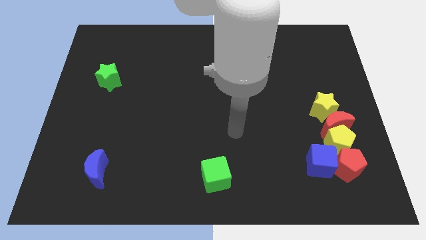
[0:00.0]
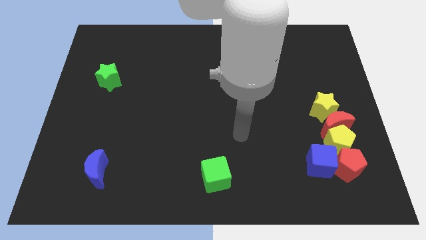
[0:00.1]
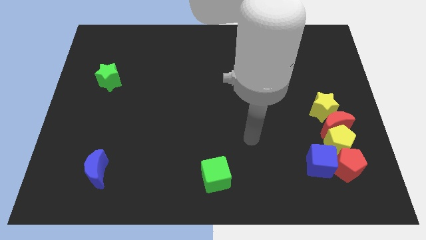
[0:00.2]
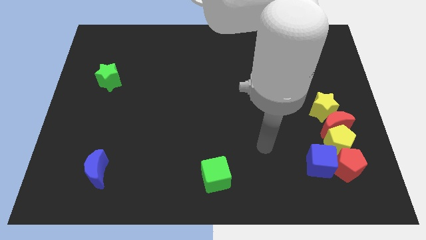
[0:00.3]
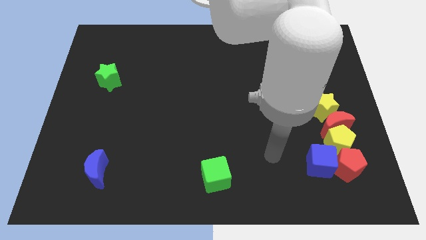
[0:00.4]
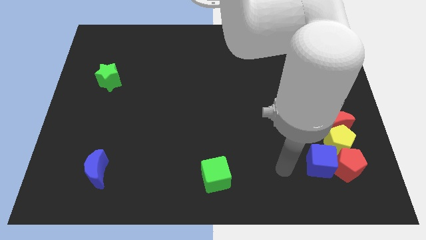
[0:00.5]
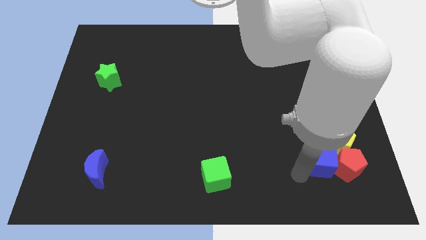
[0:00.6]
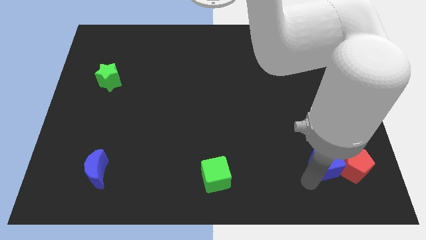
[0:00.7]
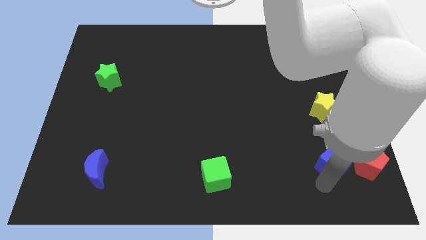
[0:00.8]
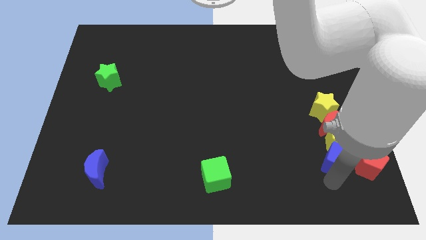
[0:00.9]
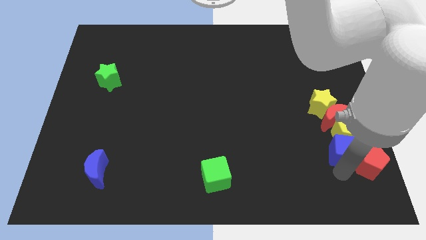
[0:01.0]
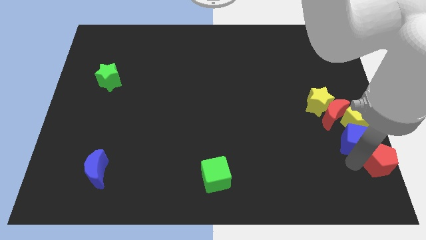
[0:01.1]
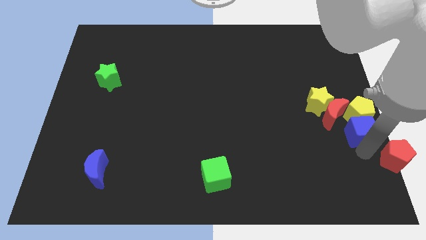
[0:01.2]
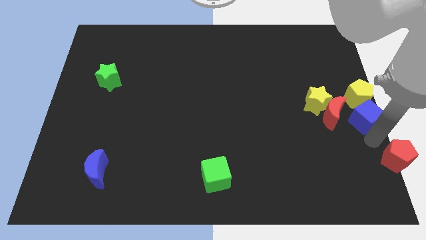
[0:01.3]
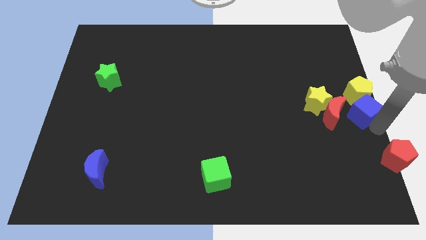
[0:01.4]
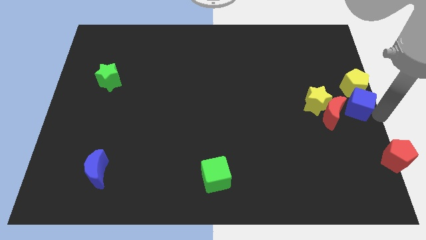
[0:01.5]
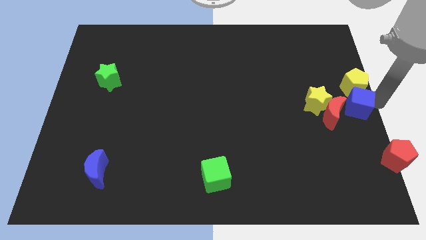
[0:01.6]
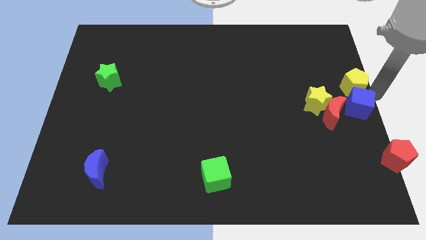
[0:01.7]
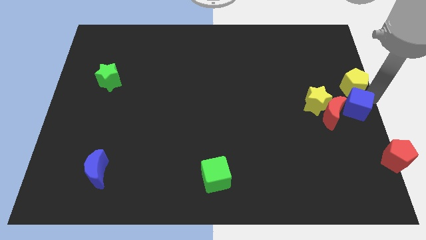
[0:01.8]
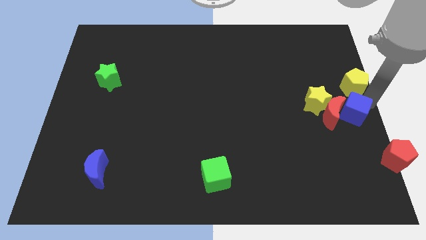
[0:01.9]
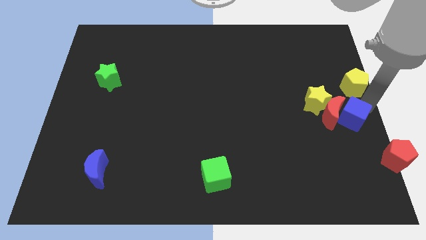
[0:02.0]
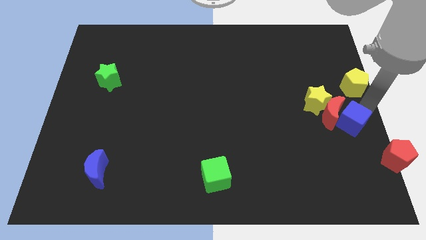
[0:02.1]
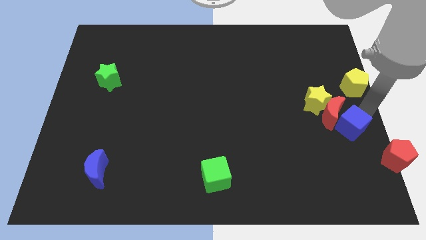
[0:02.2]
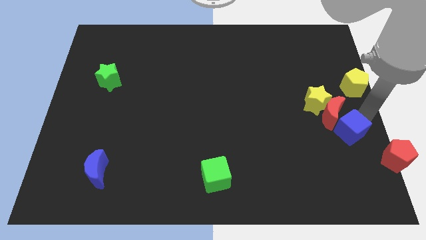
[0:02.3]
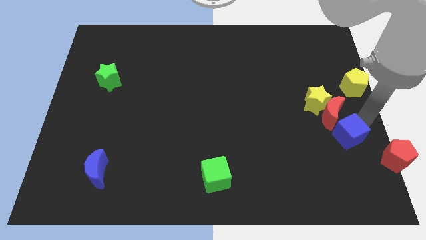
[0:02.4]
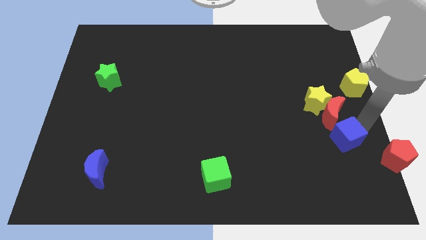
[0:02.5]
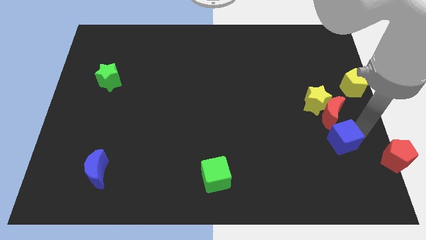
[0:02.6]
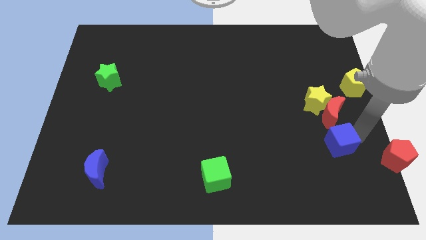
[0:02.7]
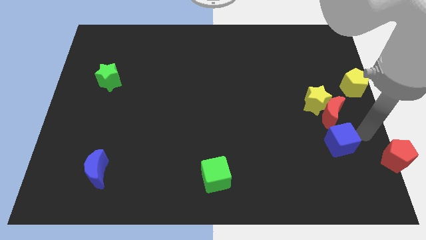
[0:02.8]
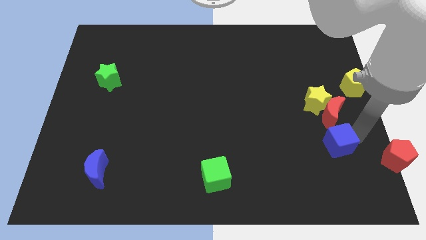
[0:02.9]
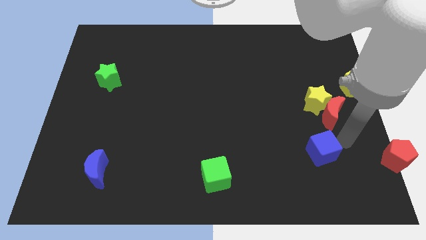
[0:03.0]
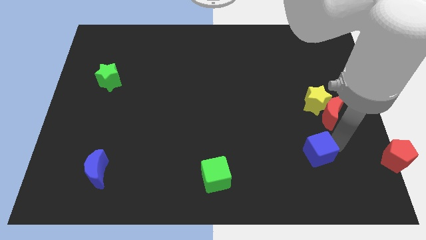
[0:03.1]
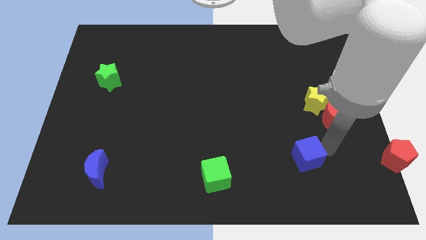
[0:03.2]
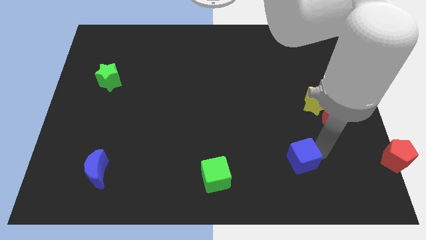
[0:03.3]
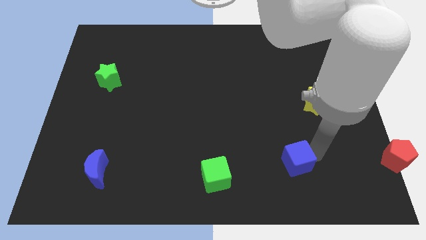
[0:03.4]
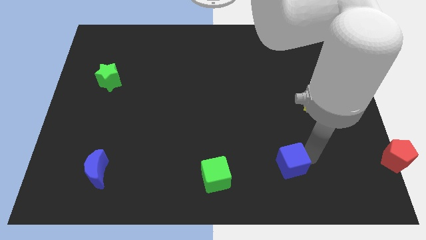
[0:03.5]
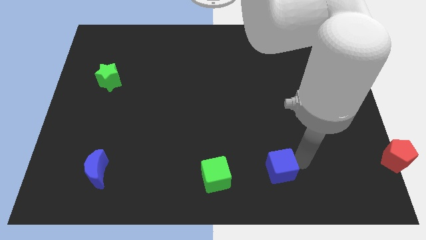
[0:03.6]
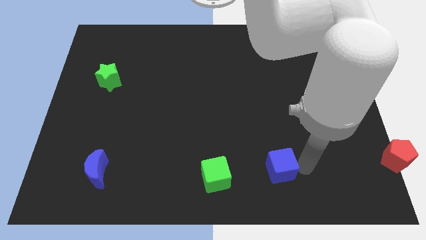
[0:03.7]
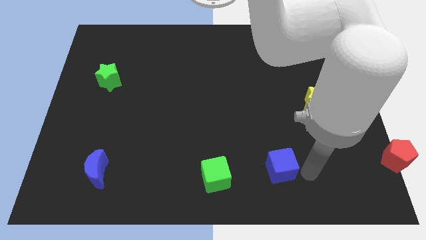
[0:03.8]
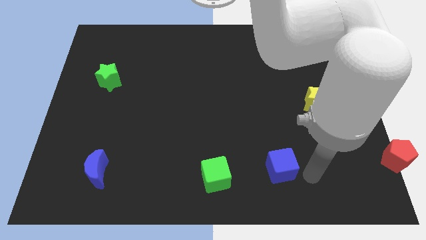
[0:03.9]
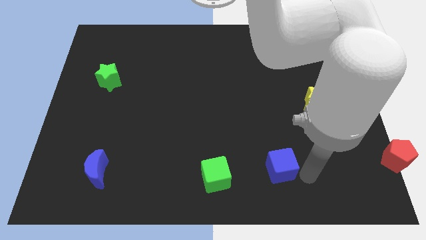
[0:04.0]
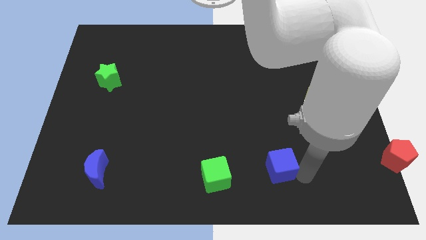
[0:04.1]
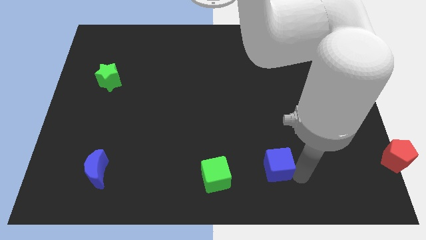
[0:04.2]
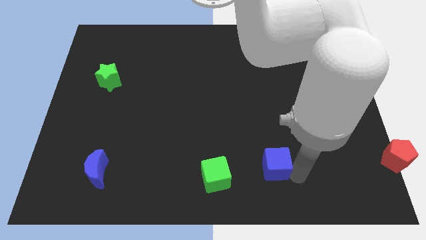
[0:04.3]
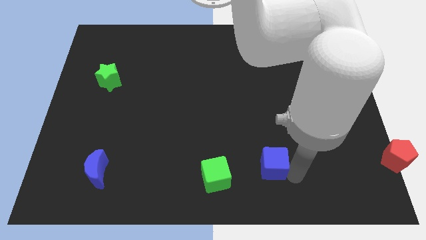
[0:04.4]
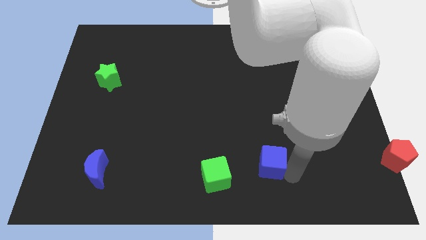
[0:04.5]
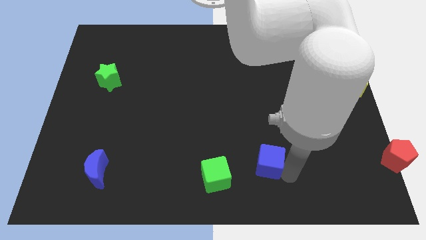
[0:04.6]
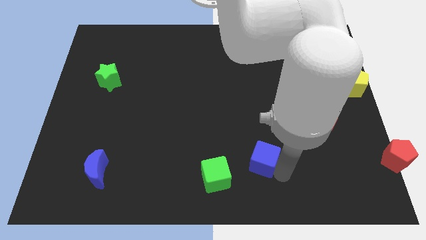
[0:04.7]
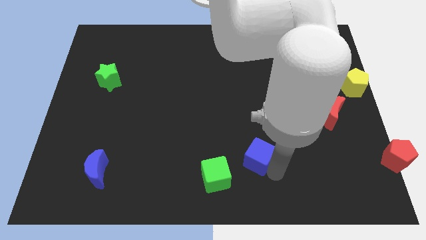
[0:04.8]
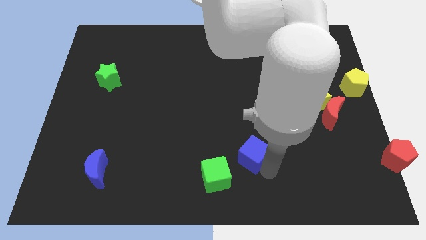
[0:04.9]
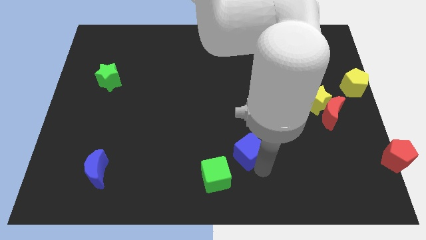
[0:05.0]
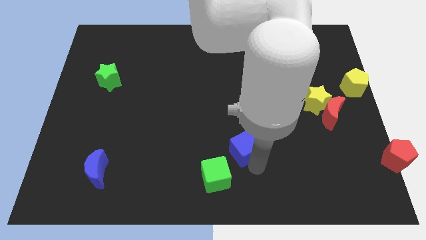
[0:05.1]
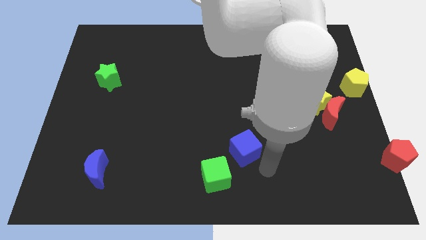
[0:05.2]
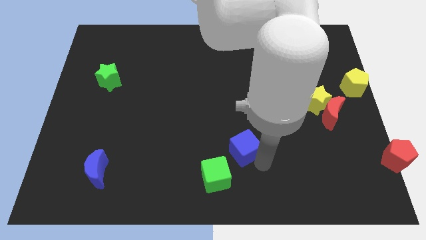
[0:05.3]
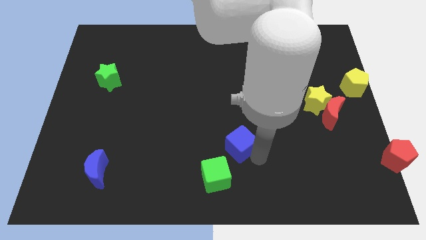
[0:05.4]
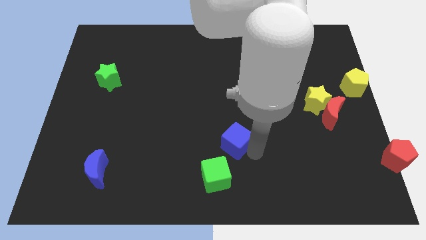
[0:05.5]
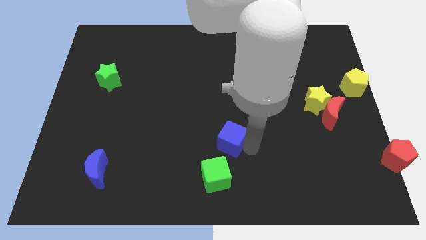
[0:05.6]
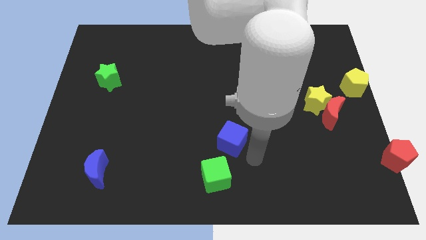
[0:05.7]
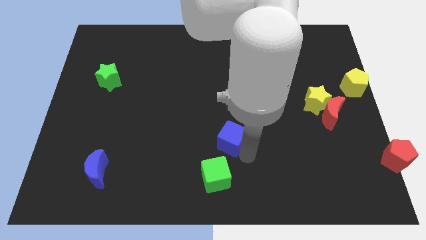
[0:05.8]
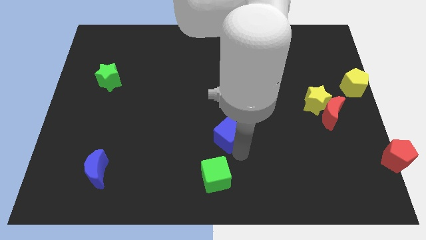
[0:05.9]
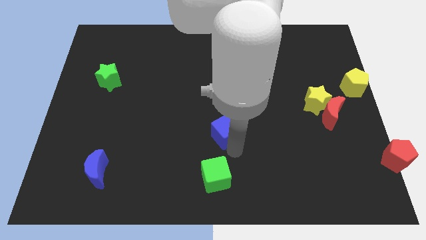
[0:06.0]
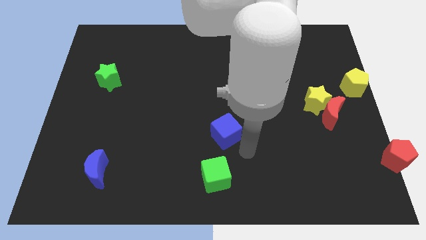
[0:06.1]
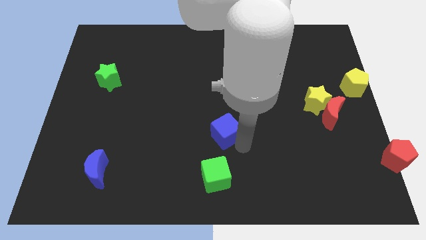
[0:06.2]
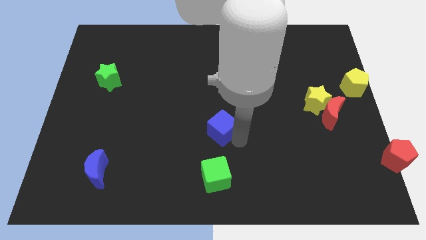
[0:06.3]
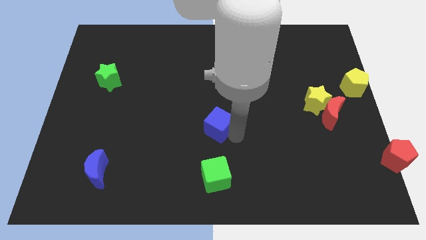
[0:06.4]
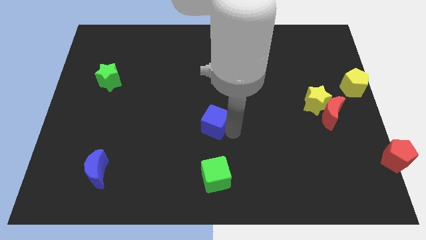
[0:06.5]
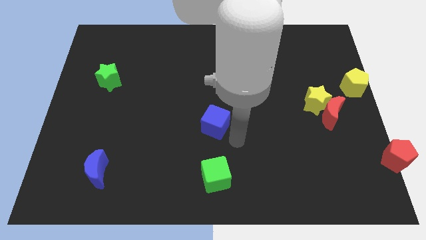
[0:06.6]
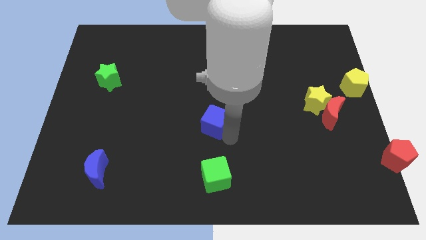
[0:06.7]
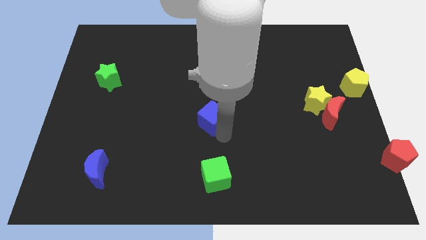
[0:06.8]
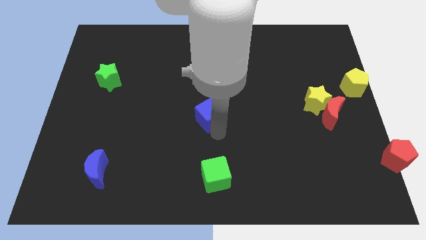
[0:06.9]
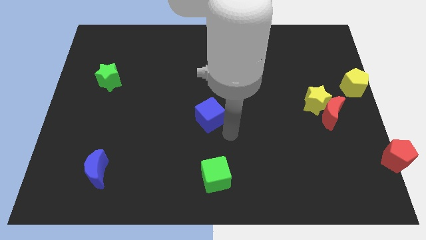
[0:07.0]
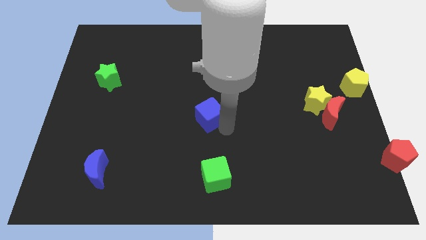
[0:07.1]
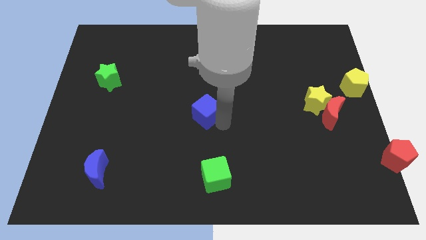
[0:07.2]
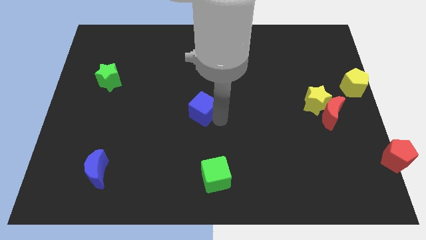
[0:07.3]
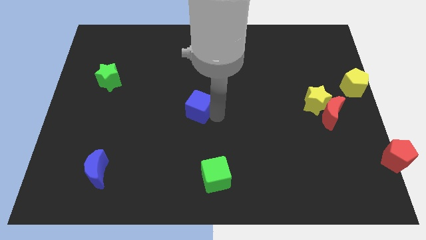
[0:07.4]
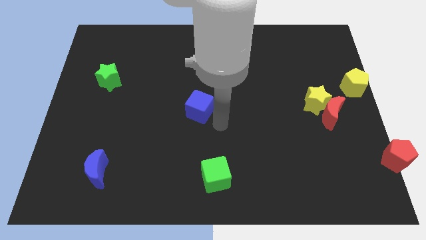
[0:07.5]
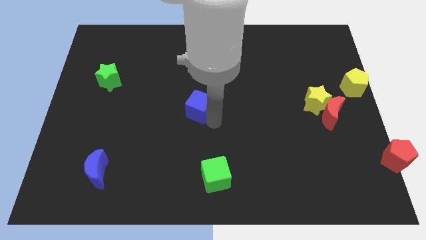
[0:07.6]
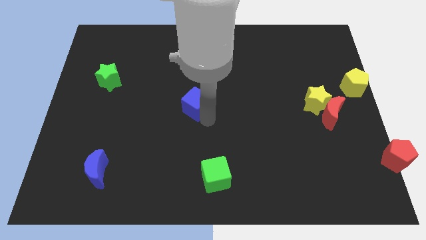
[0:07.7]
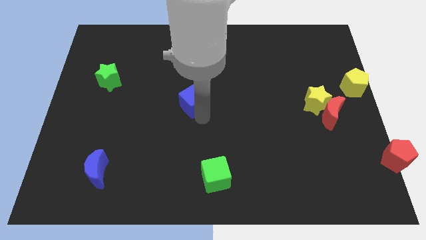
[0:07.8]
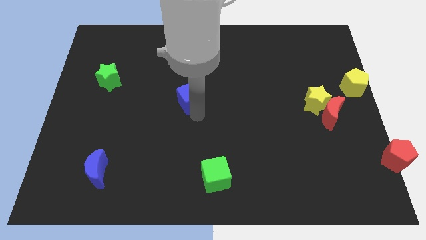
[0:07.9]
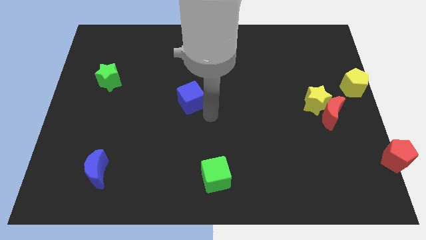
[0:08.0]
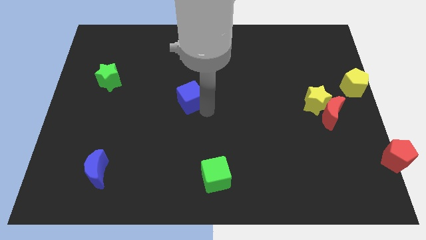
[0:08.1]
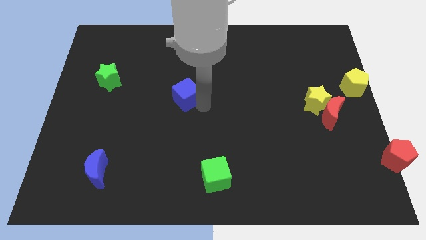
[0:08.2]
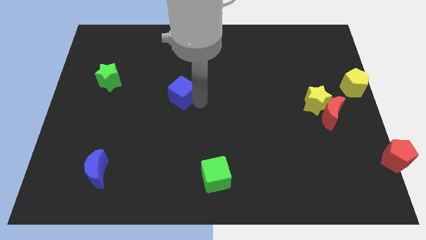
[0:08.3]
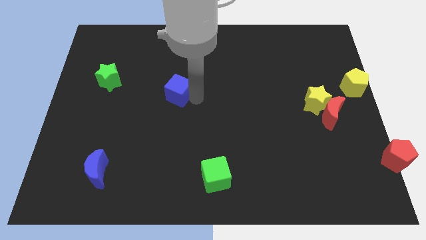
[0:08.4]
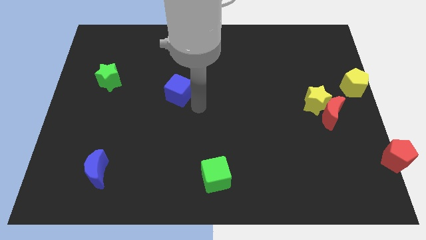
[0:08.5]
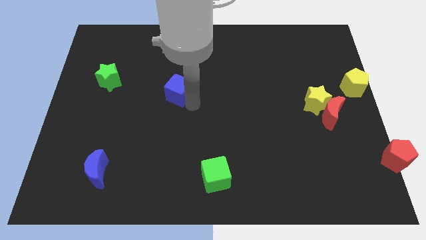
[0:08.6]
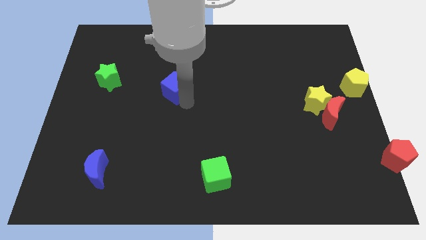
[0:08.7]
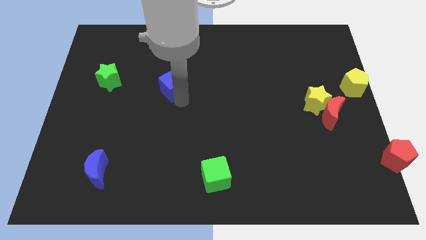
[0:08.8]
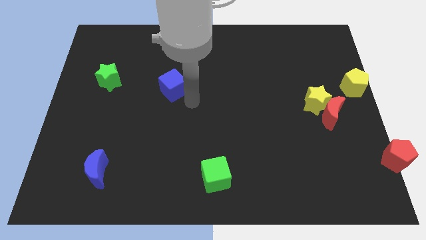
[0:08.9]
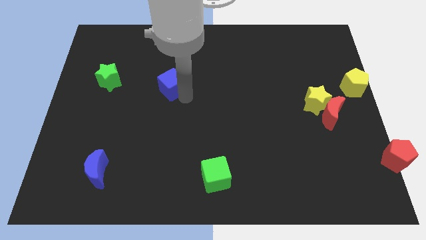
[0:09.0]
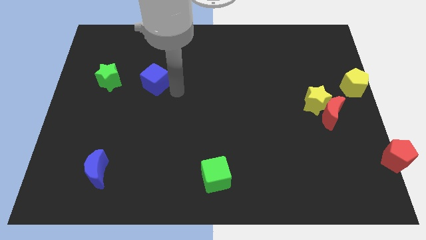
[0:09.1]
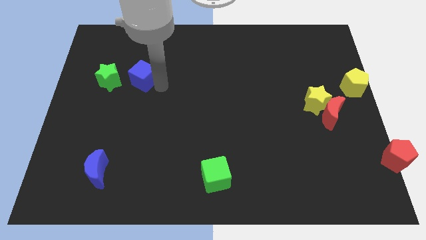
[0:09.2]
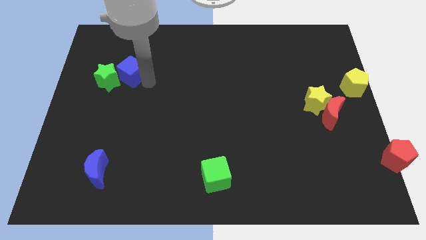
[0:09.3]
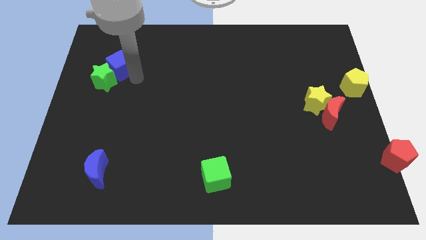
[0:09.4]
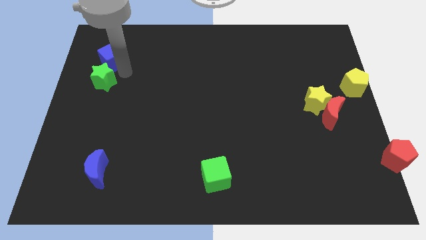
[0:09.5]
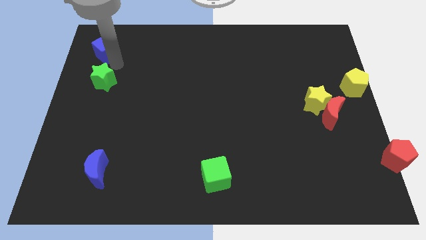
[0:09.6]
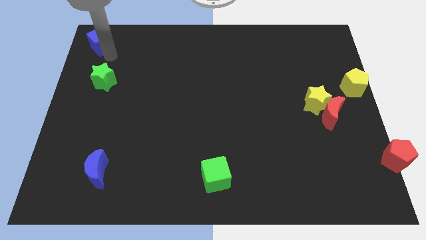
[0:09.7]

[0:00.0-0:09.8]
move the blue cube to the top left of the board
